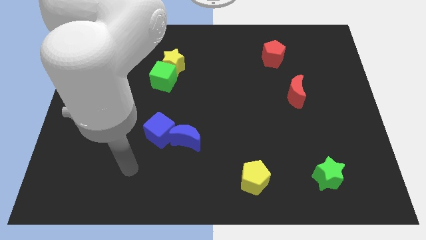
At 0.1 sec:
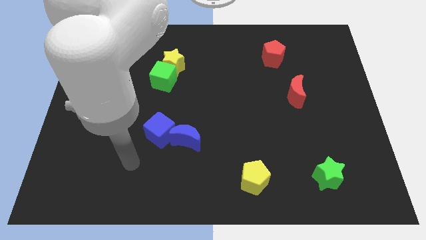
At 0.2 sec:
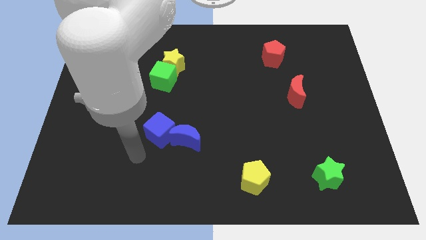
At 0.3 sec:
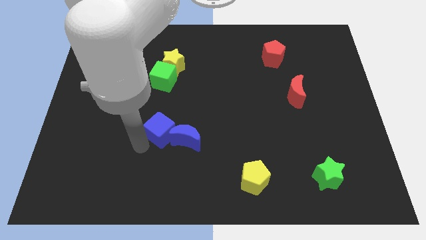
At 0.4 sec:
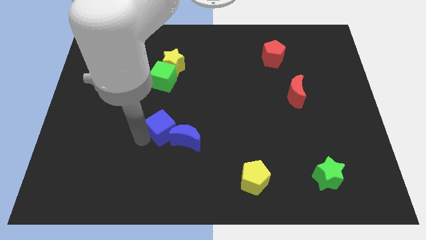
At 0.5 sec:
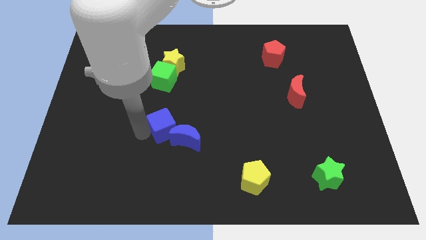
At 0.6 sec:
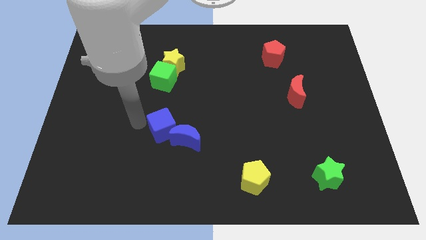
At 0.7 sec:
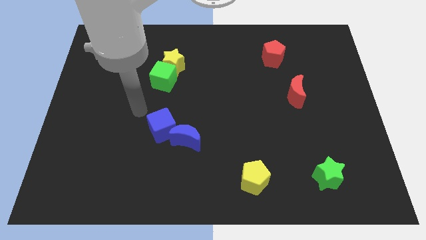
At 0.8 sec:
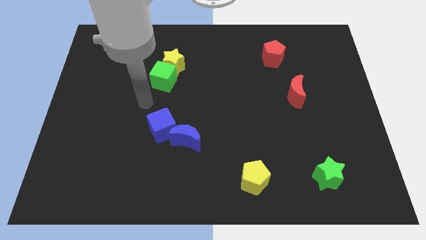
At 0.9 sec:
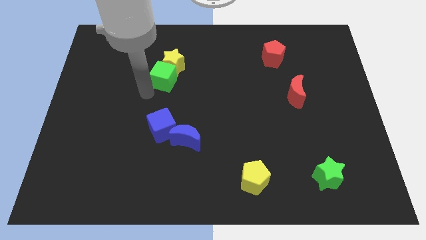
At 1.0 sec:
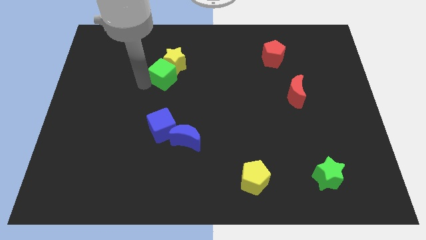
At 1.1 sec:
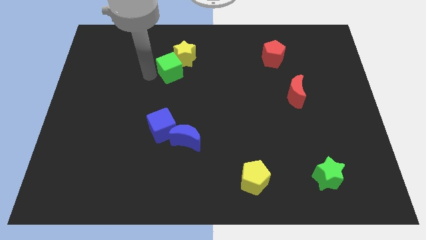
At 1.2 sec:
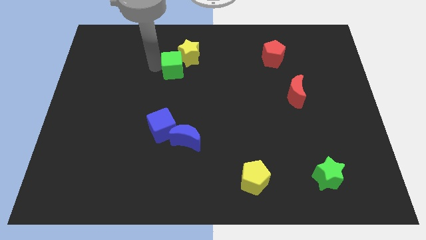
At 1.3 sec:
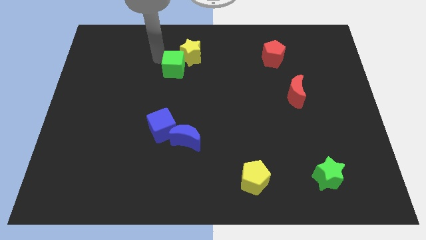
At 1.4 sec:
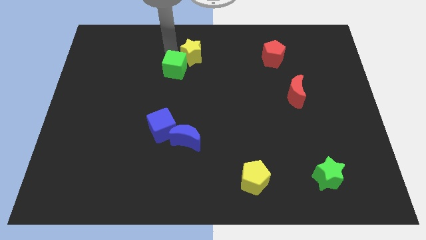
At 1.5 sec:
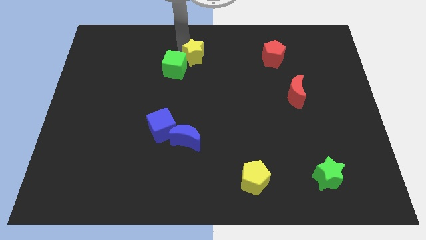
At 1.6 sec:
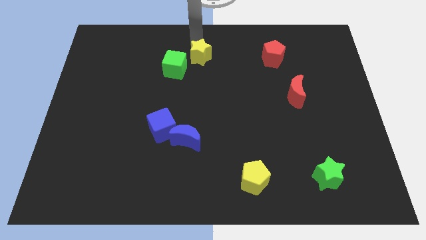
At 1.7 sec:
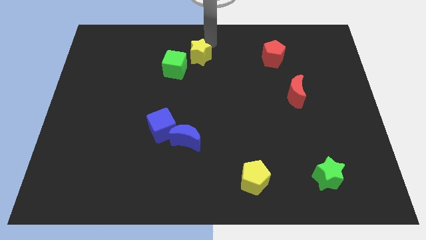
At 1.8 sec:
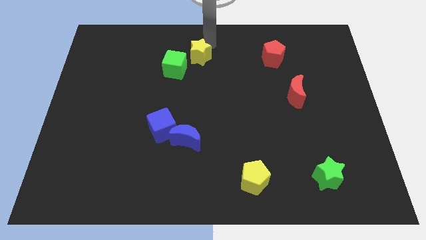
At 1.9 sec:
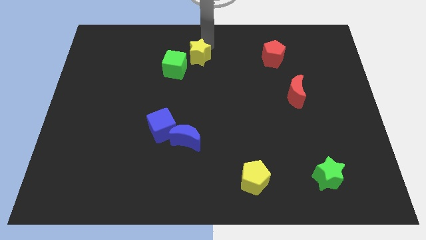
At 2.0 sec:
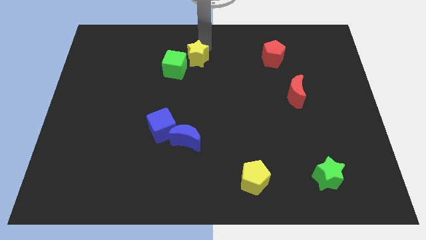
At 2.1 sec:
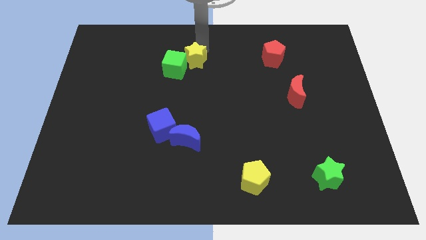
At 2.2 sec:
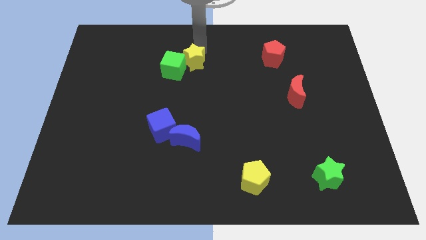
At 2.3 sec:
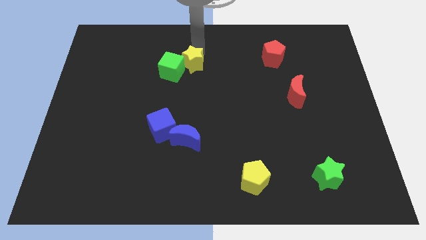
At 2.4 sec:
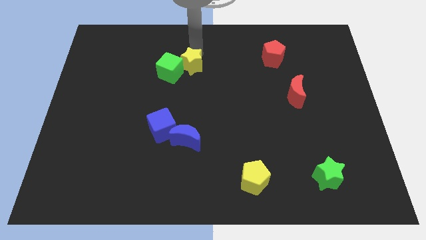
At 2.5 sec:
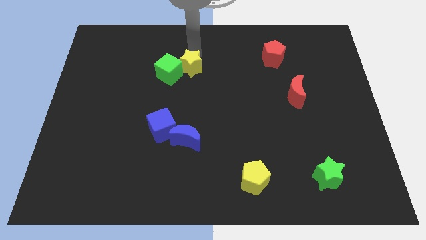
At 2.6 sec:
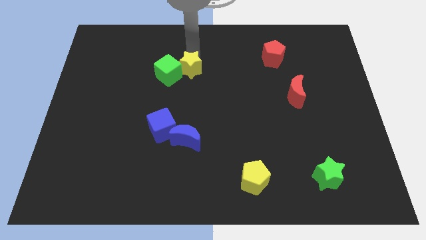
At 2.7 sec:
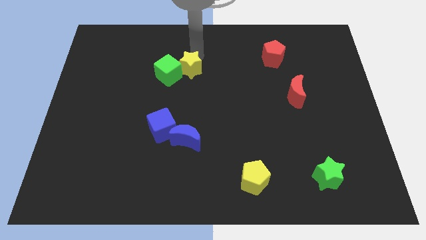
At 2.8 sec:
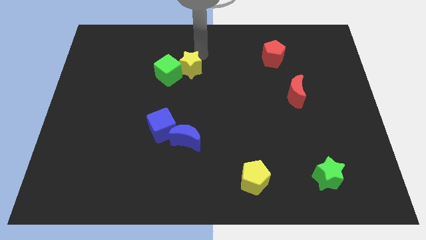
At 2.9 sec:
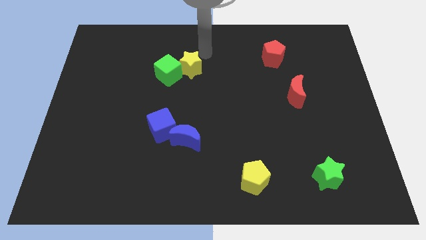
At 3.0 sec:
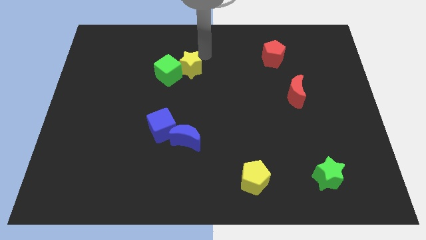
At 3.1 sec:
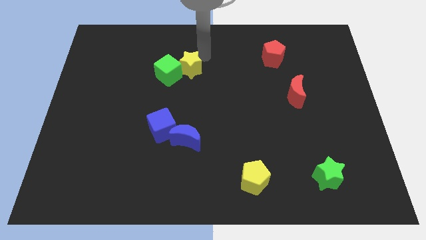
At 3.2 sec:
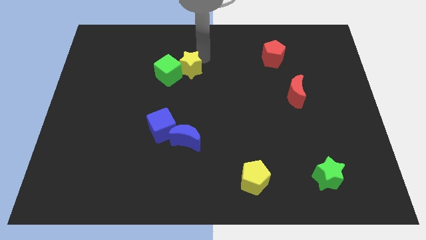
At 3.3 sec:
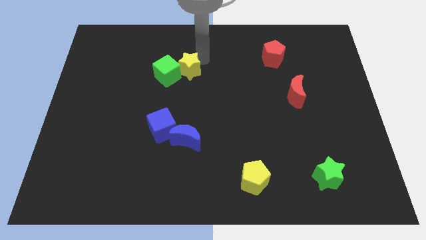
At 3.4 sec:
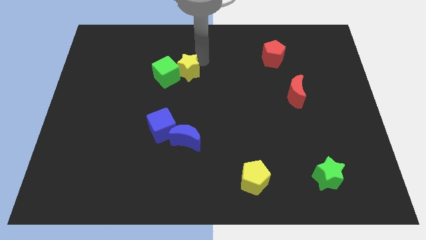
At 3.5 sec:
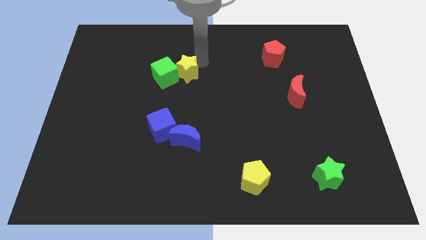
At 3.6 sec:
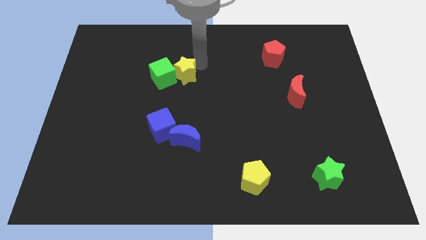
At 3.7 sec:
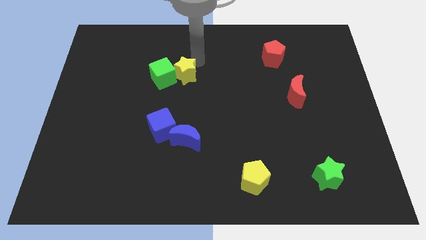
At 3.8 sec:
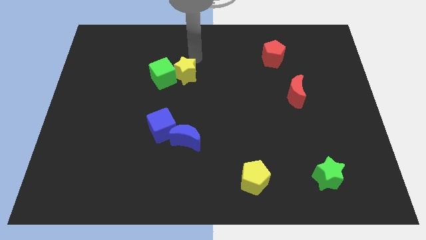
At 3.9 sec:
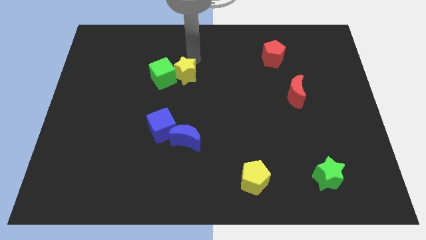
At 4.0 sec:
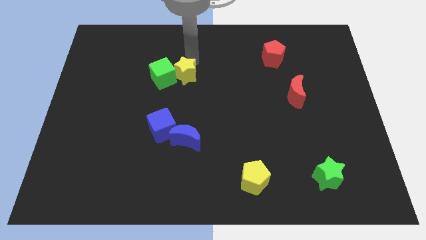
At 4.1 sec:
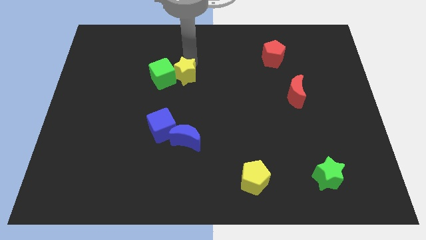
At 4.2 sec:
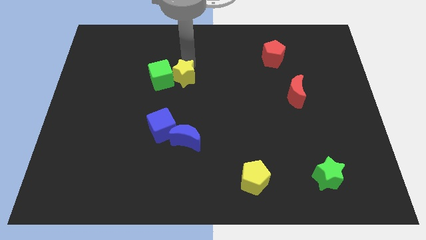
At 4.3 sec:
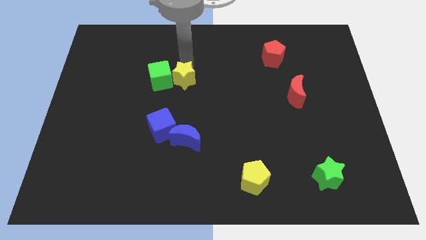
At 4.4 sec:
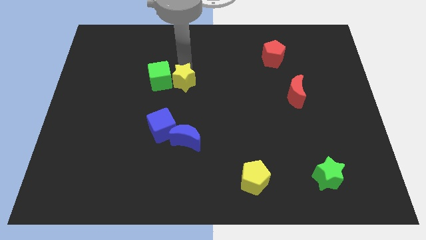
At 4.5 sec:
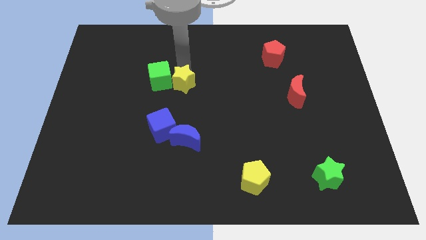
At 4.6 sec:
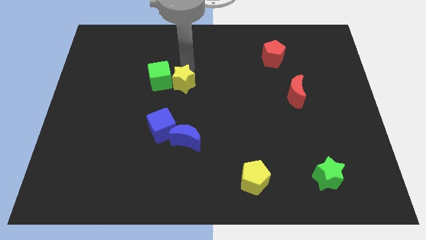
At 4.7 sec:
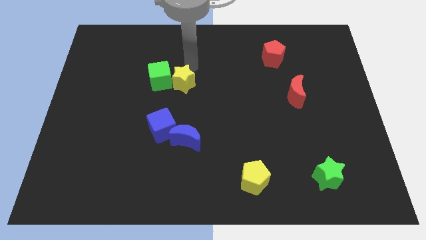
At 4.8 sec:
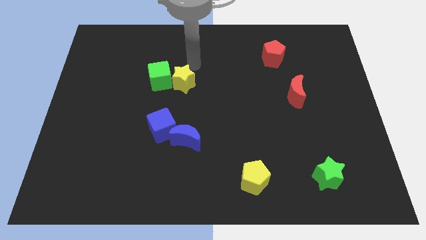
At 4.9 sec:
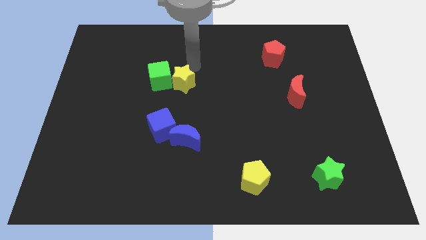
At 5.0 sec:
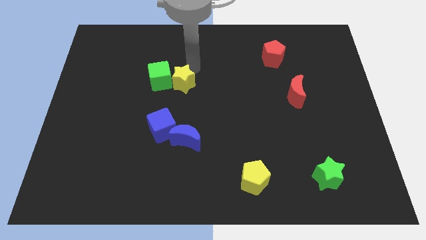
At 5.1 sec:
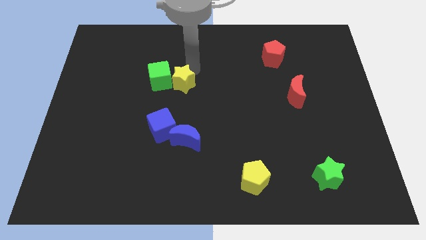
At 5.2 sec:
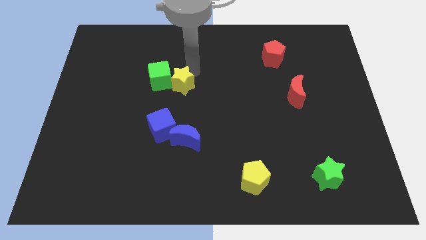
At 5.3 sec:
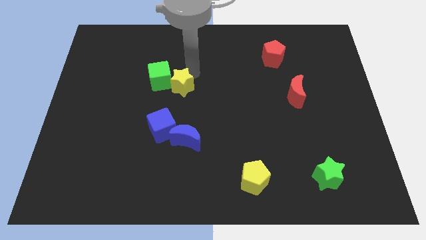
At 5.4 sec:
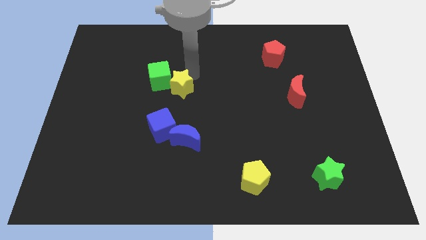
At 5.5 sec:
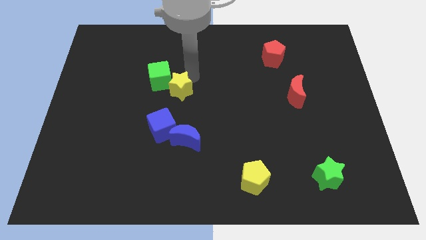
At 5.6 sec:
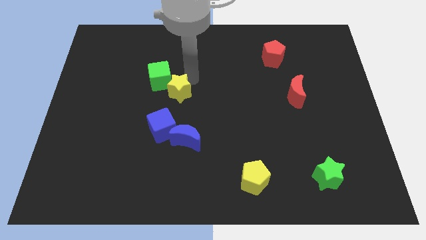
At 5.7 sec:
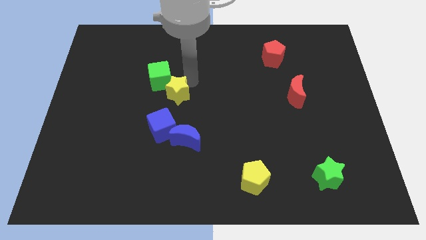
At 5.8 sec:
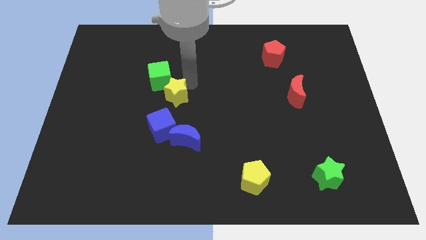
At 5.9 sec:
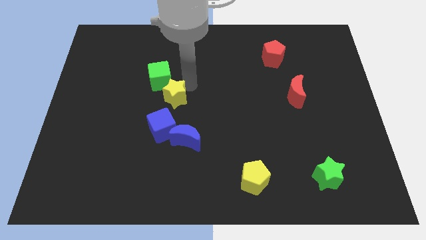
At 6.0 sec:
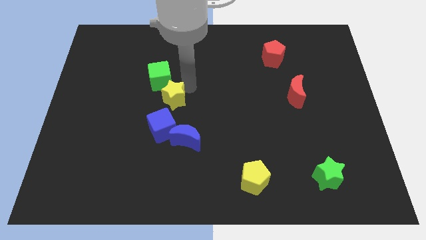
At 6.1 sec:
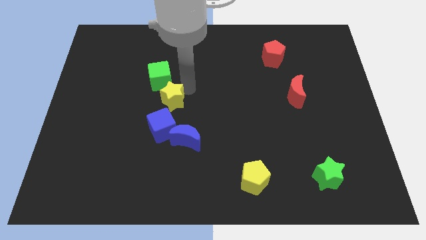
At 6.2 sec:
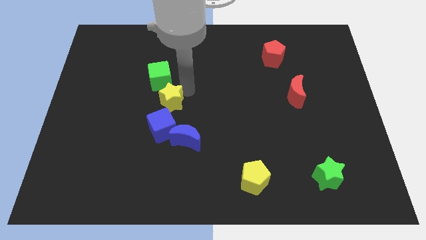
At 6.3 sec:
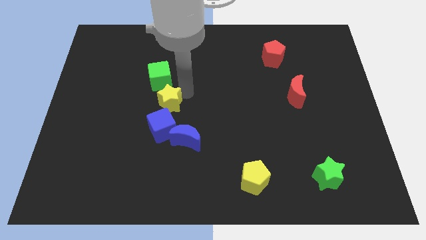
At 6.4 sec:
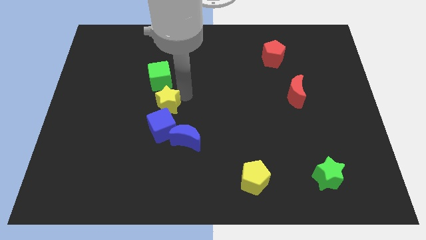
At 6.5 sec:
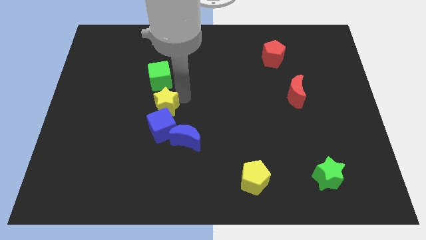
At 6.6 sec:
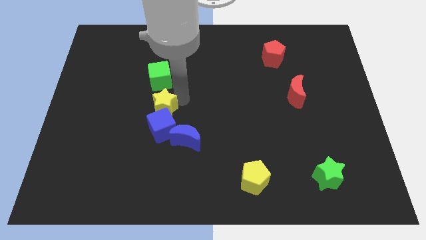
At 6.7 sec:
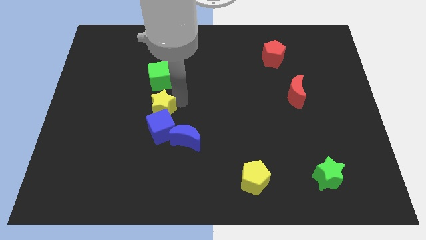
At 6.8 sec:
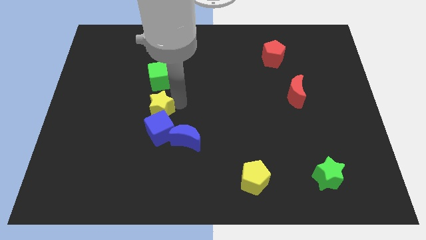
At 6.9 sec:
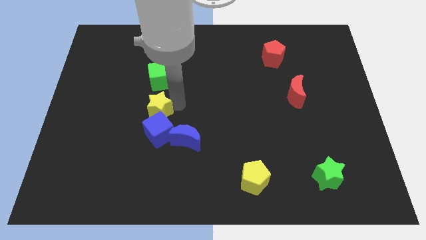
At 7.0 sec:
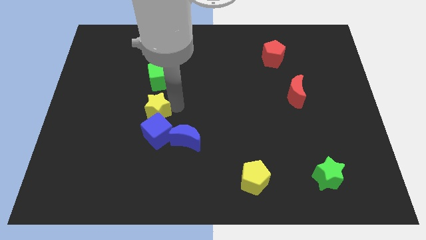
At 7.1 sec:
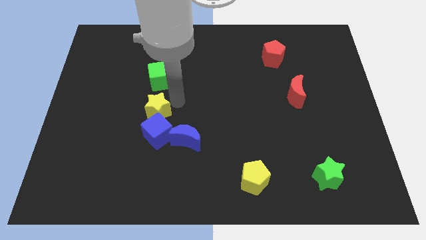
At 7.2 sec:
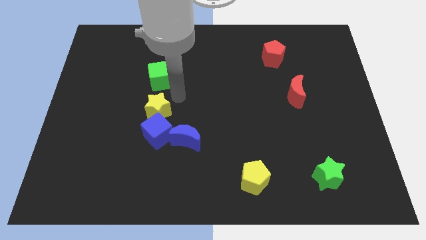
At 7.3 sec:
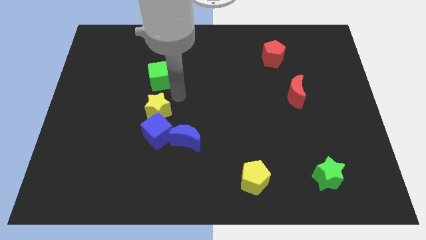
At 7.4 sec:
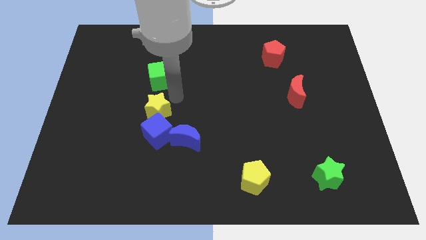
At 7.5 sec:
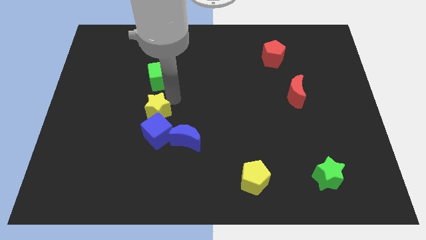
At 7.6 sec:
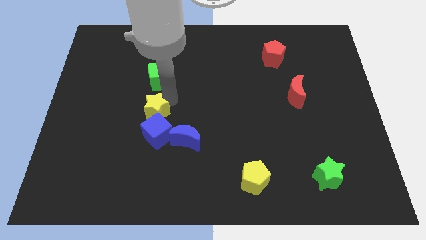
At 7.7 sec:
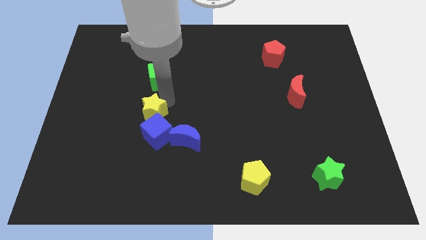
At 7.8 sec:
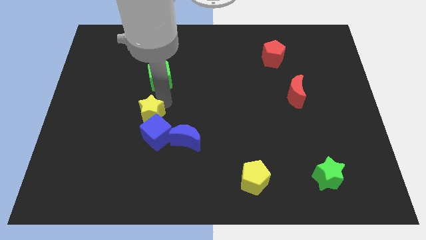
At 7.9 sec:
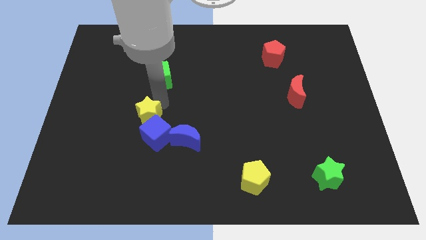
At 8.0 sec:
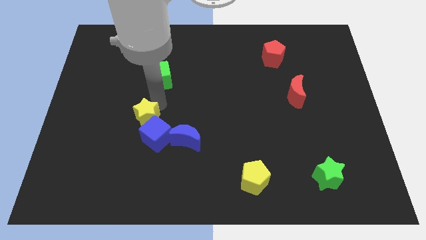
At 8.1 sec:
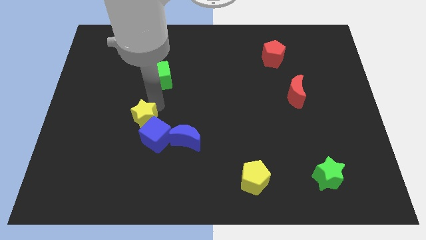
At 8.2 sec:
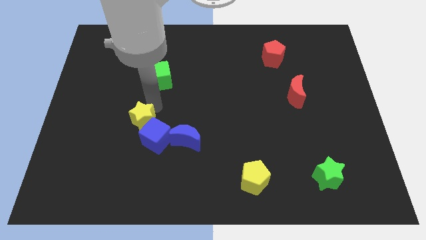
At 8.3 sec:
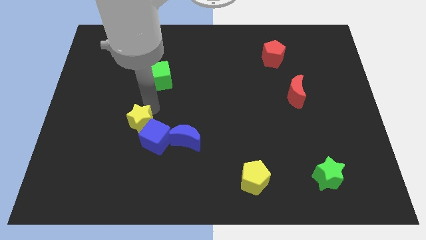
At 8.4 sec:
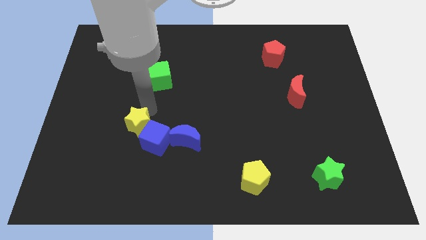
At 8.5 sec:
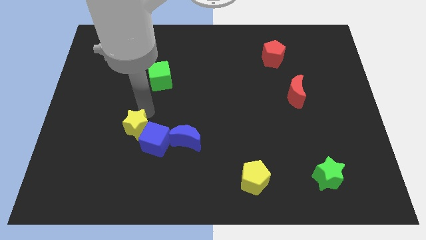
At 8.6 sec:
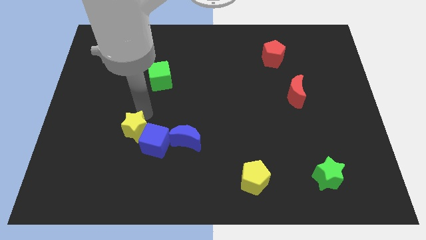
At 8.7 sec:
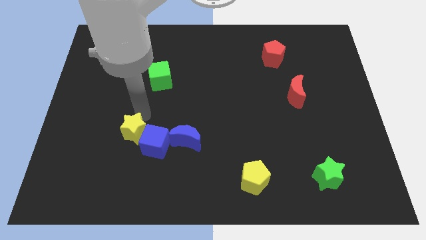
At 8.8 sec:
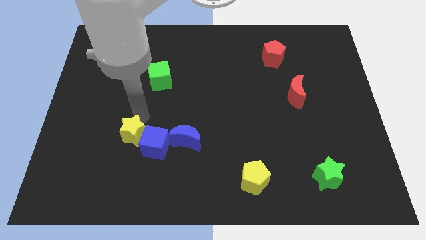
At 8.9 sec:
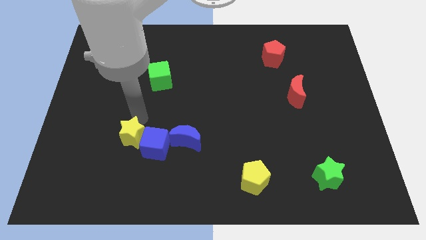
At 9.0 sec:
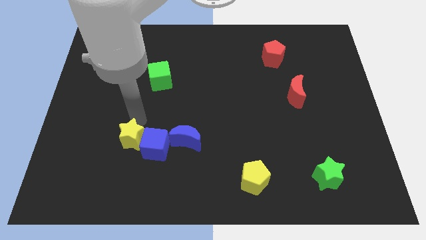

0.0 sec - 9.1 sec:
push the yellow star down
